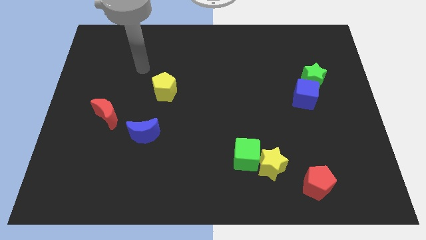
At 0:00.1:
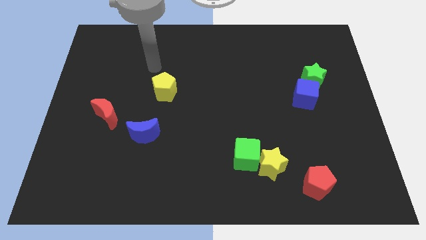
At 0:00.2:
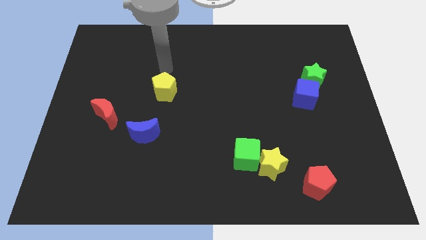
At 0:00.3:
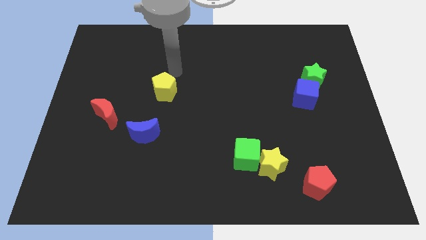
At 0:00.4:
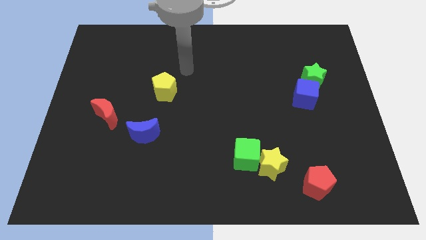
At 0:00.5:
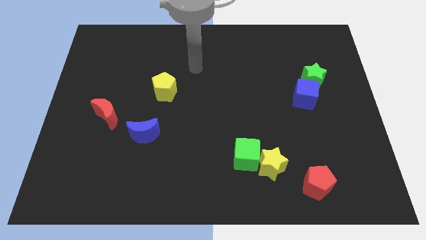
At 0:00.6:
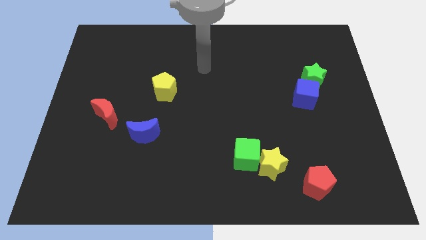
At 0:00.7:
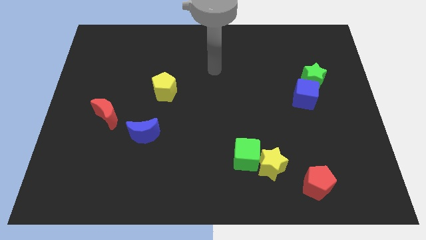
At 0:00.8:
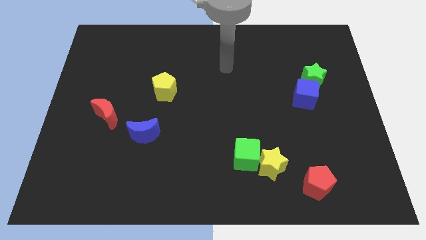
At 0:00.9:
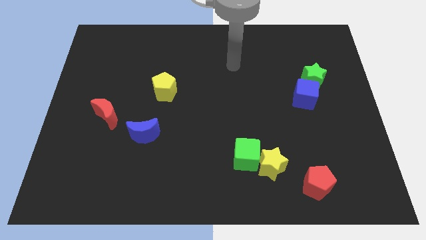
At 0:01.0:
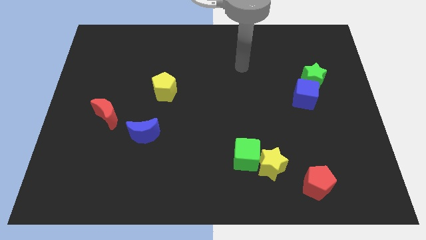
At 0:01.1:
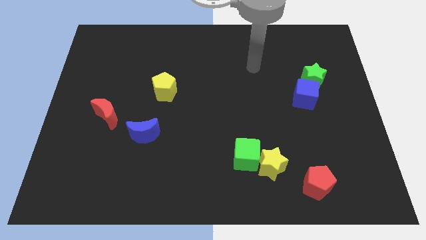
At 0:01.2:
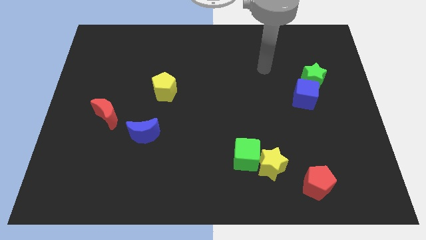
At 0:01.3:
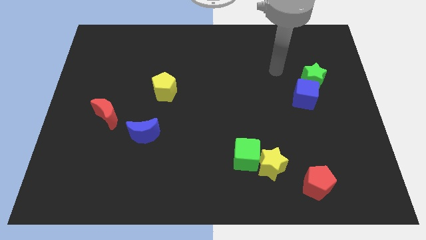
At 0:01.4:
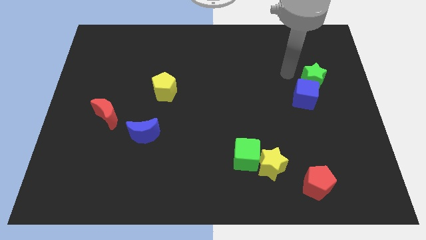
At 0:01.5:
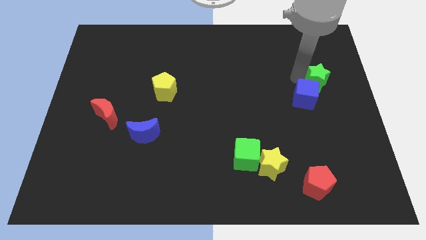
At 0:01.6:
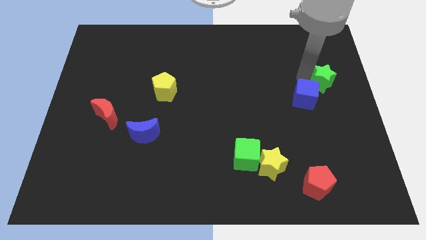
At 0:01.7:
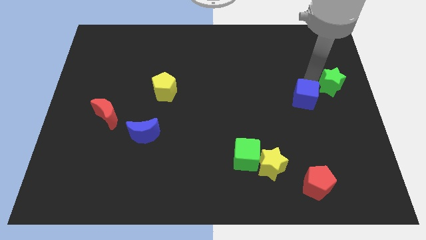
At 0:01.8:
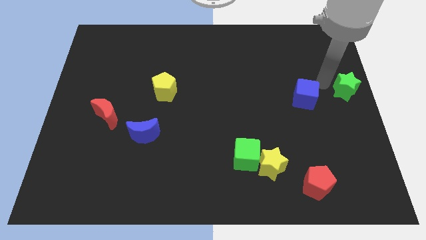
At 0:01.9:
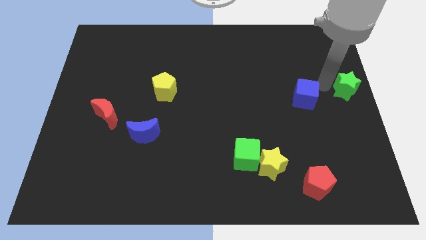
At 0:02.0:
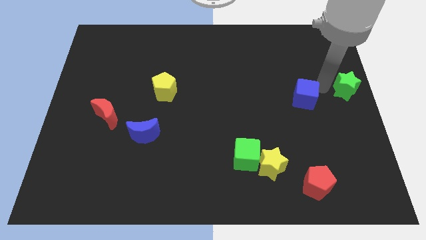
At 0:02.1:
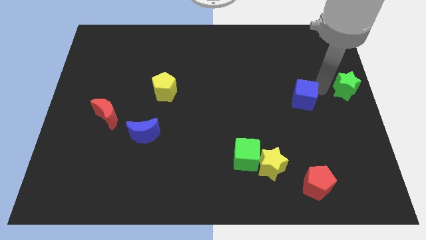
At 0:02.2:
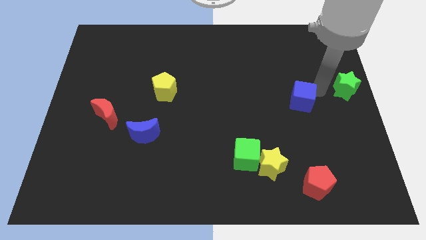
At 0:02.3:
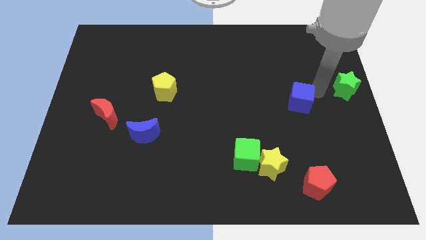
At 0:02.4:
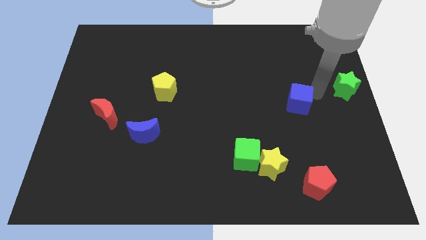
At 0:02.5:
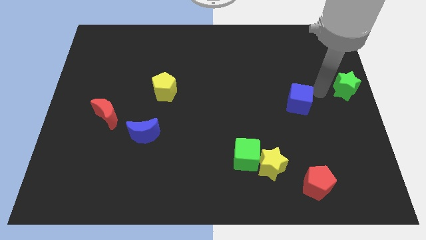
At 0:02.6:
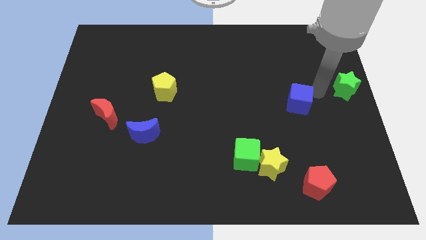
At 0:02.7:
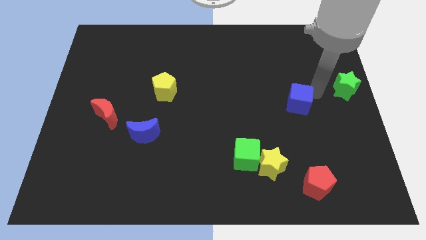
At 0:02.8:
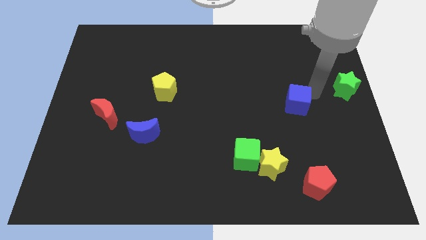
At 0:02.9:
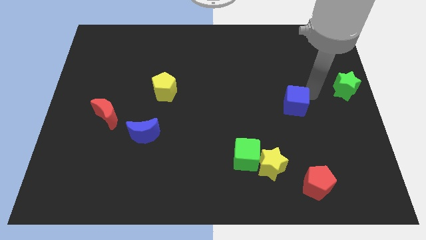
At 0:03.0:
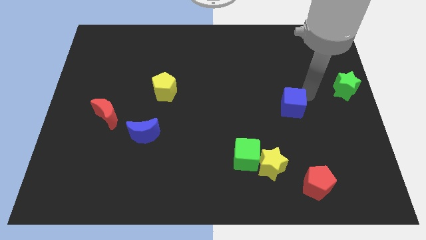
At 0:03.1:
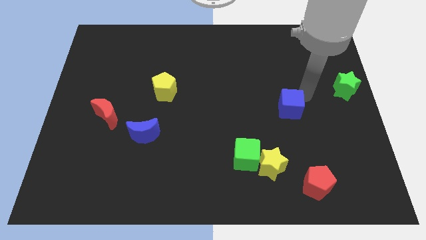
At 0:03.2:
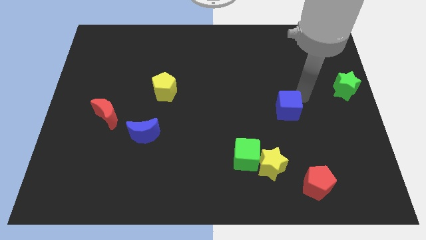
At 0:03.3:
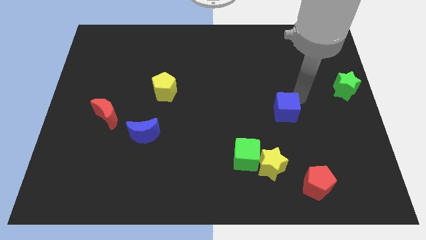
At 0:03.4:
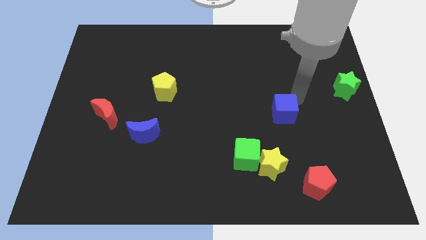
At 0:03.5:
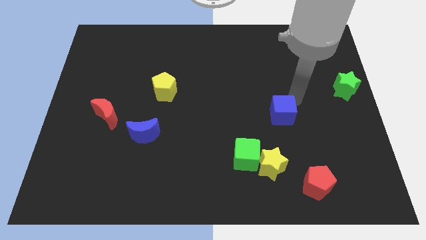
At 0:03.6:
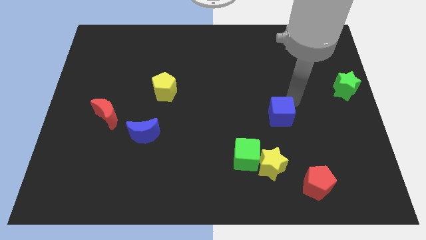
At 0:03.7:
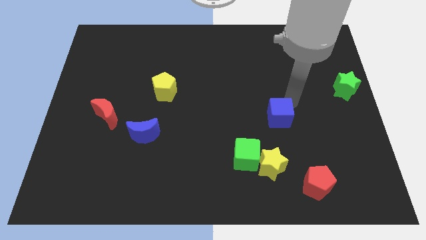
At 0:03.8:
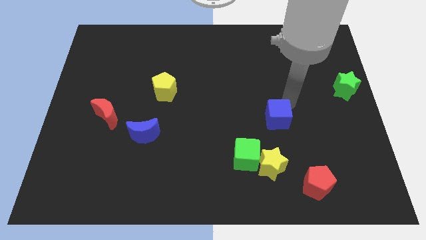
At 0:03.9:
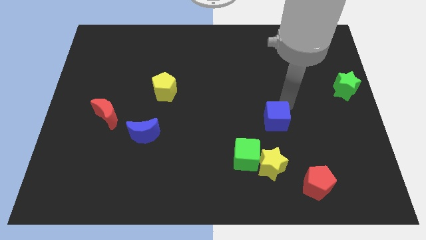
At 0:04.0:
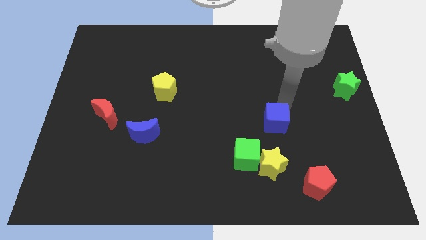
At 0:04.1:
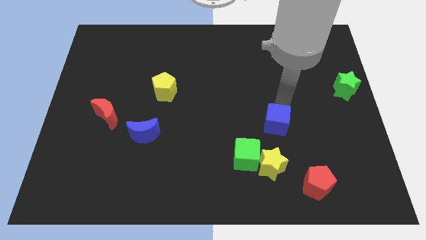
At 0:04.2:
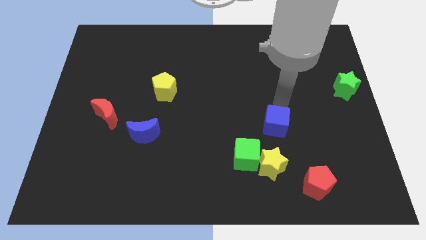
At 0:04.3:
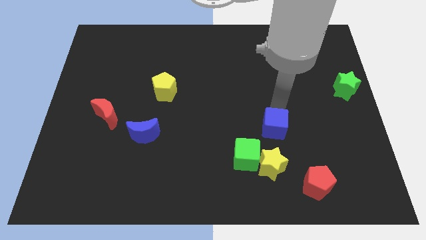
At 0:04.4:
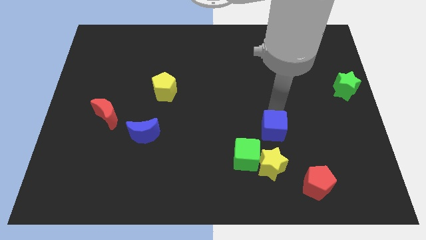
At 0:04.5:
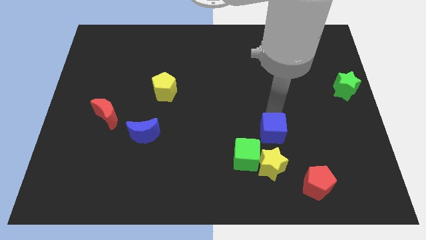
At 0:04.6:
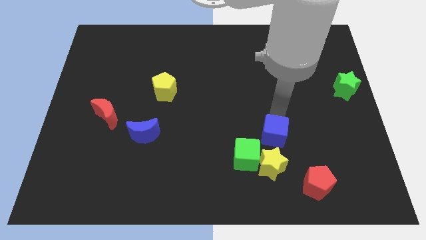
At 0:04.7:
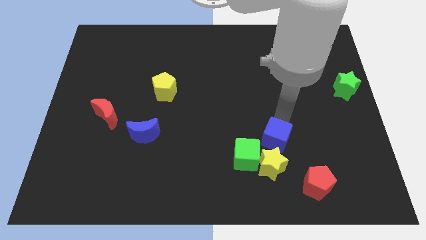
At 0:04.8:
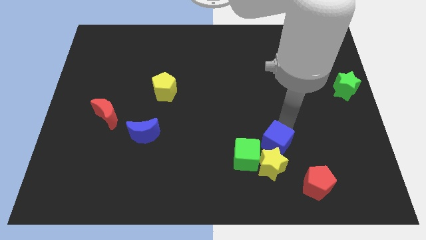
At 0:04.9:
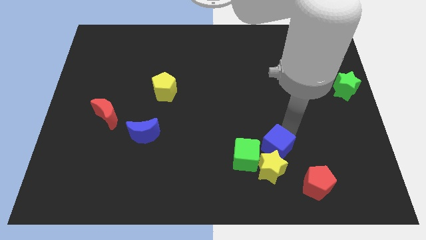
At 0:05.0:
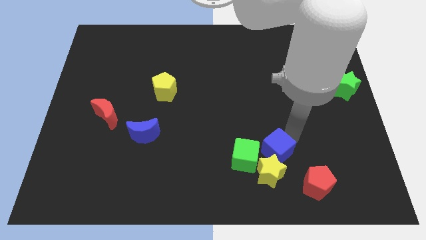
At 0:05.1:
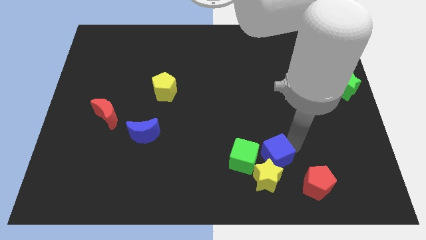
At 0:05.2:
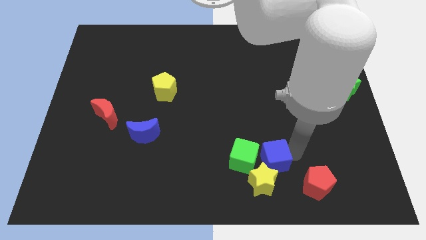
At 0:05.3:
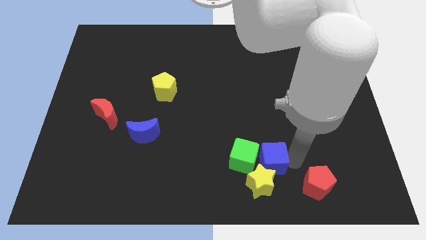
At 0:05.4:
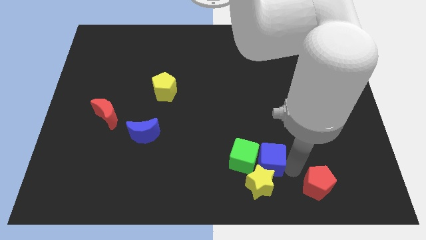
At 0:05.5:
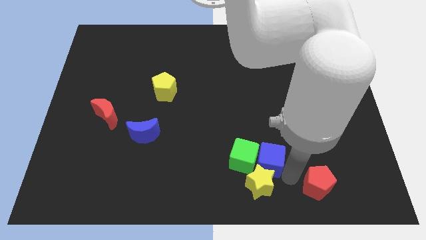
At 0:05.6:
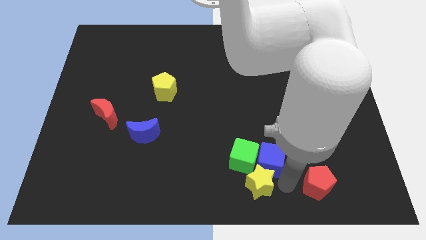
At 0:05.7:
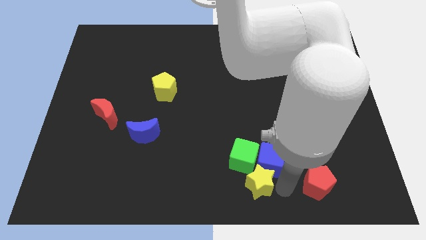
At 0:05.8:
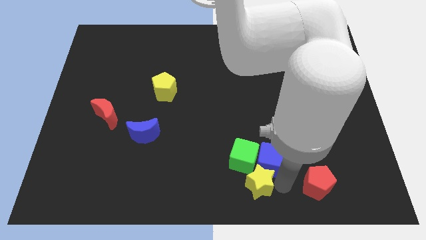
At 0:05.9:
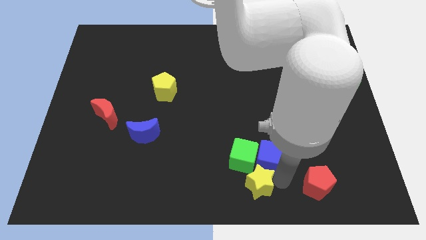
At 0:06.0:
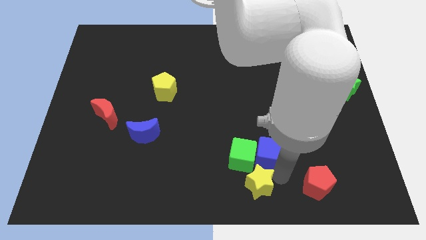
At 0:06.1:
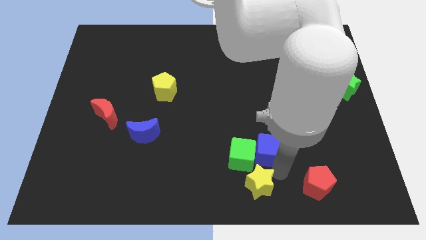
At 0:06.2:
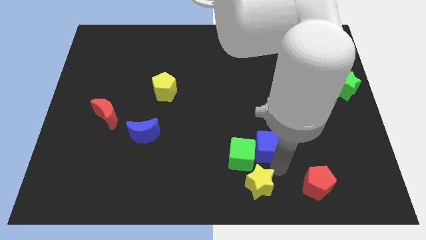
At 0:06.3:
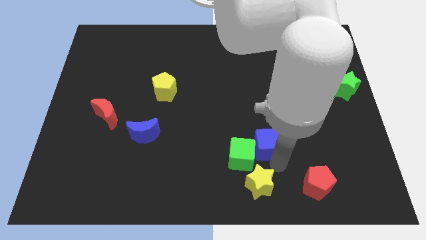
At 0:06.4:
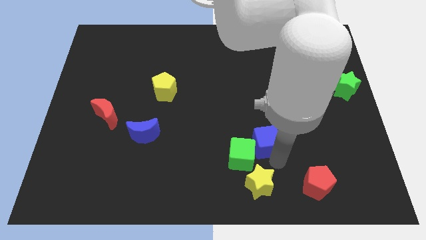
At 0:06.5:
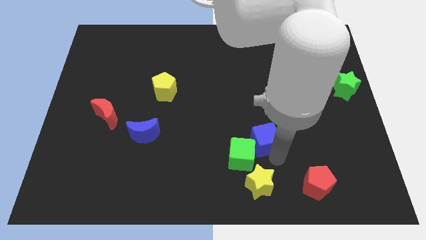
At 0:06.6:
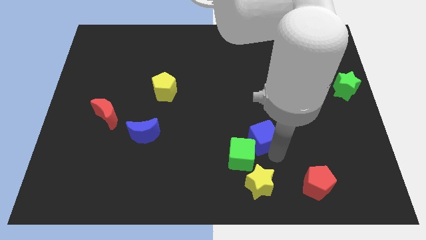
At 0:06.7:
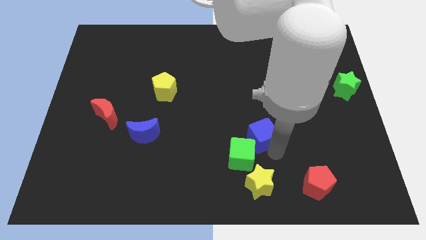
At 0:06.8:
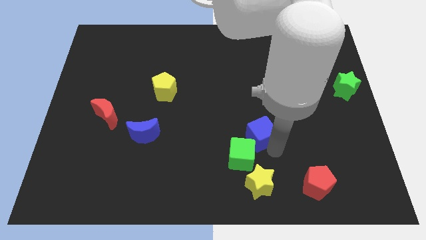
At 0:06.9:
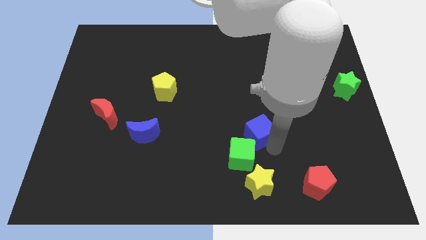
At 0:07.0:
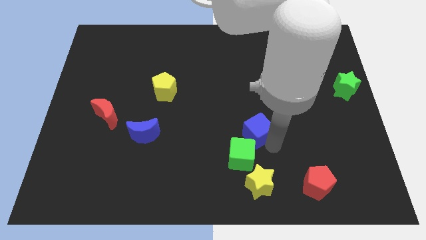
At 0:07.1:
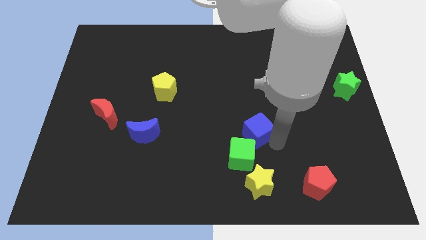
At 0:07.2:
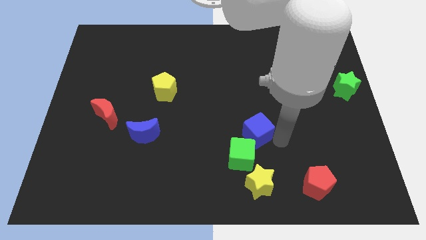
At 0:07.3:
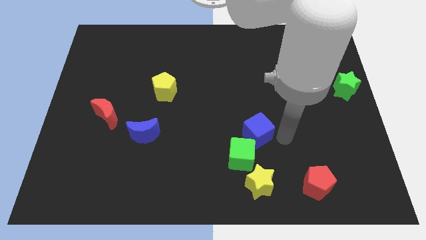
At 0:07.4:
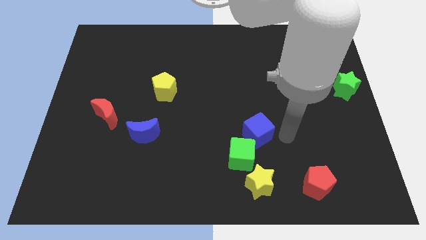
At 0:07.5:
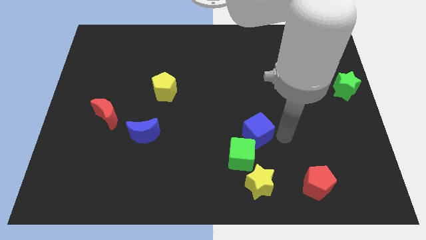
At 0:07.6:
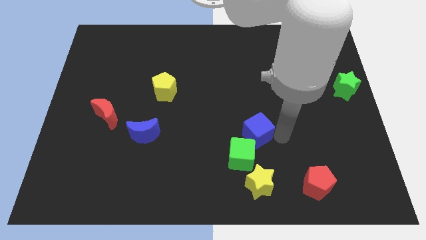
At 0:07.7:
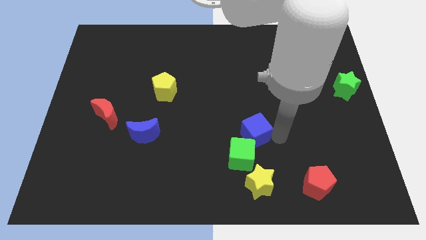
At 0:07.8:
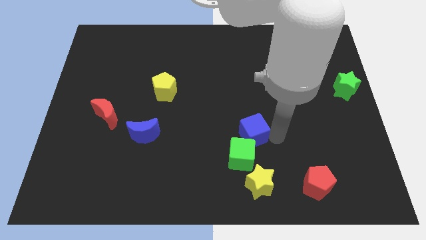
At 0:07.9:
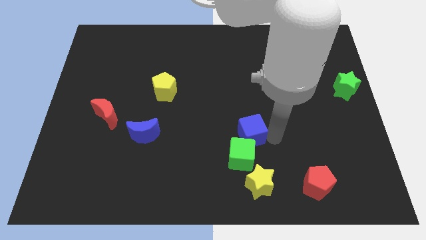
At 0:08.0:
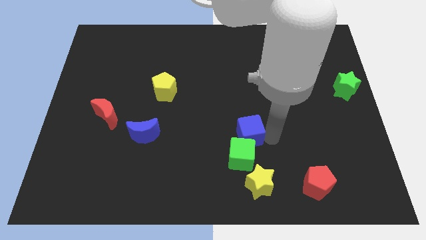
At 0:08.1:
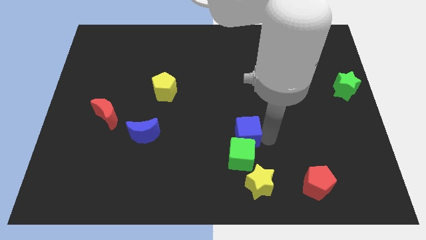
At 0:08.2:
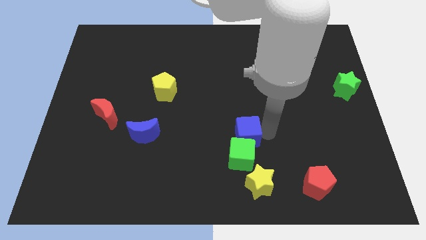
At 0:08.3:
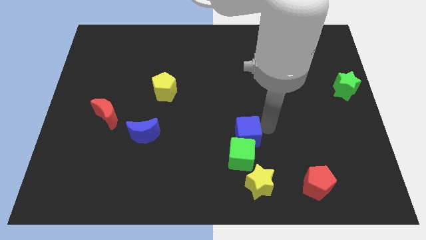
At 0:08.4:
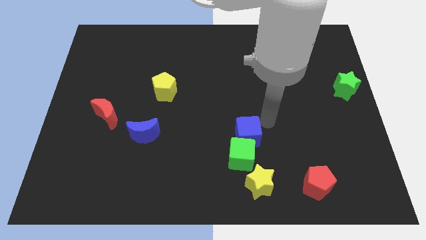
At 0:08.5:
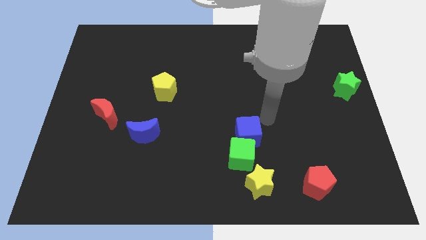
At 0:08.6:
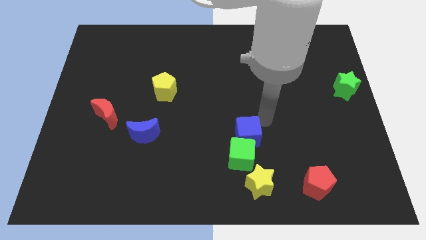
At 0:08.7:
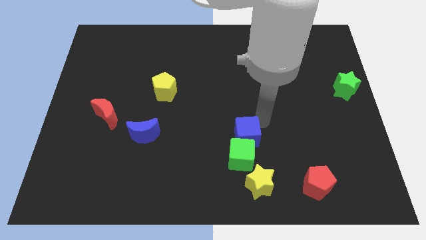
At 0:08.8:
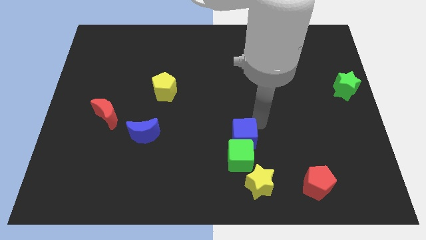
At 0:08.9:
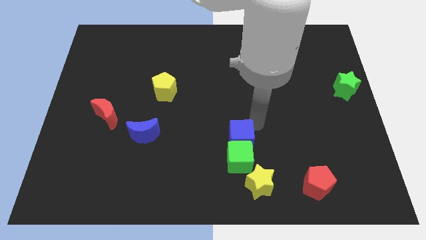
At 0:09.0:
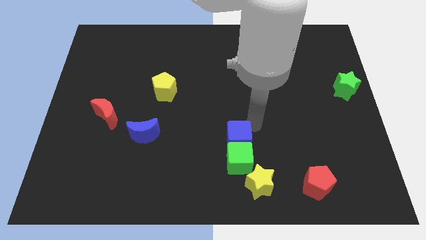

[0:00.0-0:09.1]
push the blue cube down and left diagonally
